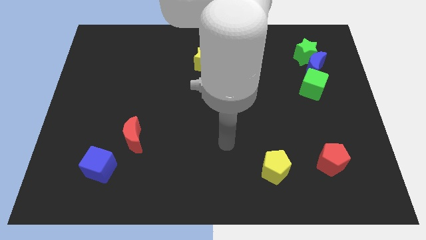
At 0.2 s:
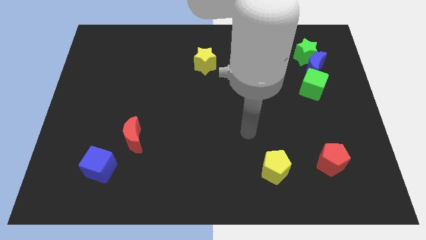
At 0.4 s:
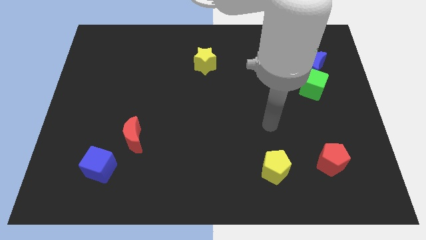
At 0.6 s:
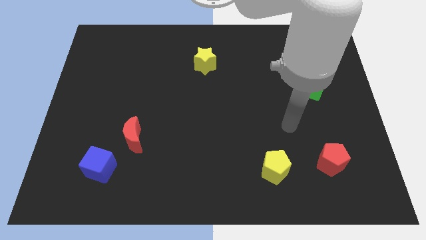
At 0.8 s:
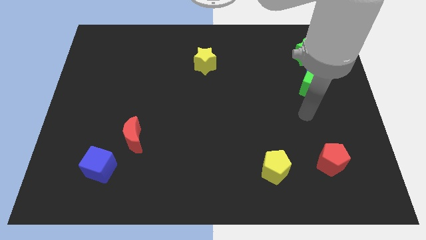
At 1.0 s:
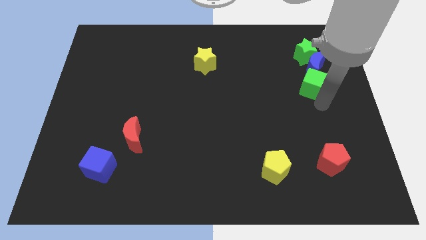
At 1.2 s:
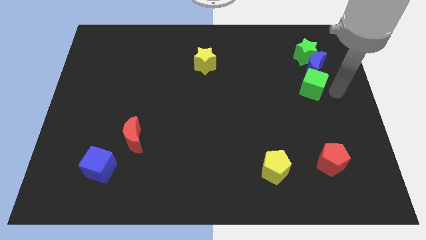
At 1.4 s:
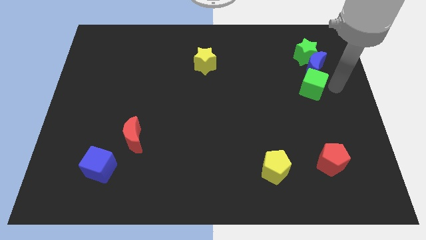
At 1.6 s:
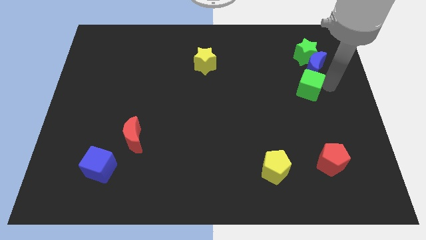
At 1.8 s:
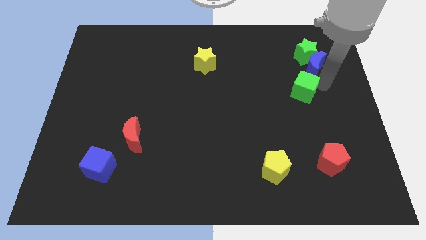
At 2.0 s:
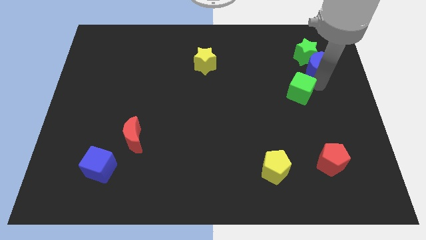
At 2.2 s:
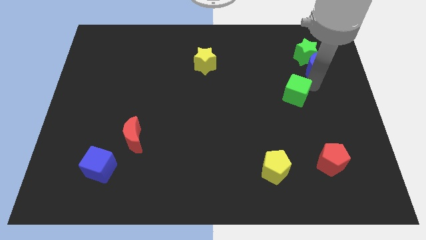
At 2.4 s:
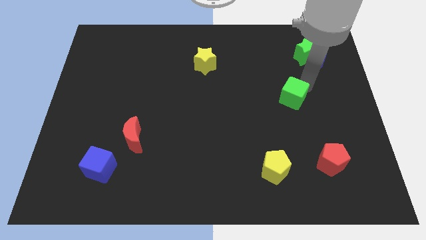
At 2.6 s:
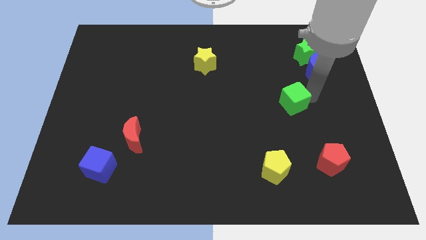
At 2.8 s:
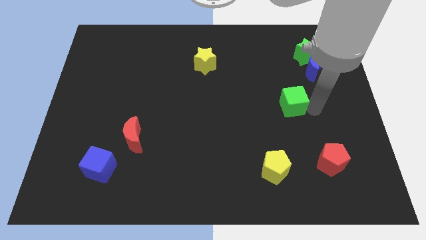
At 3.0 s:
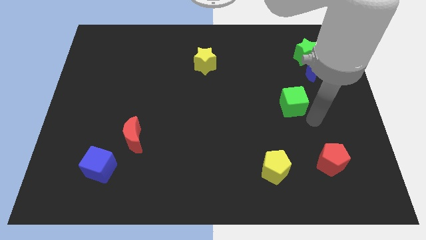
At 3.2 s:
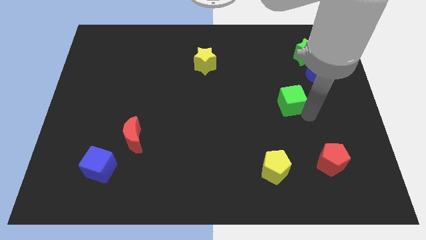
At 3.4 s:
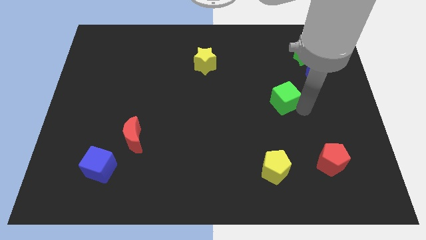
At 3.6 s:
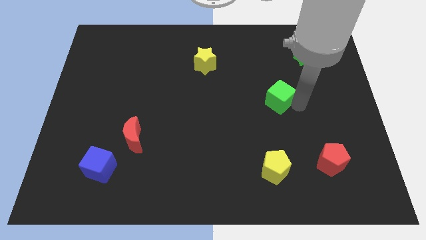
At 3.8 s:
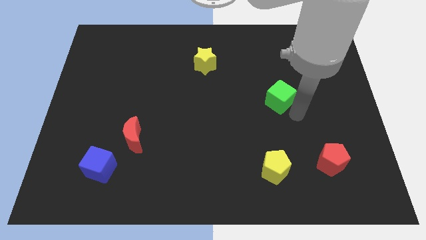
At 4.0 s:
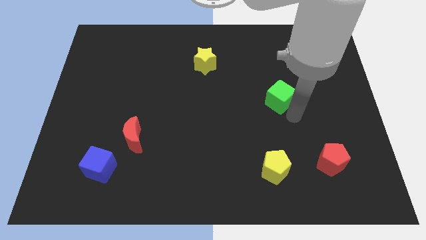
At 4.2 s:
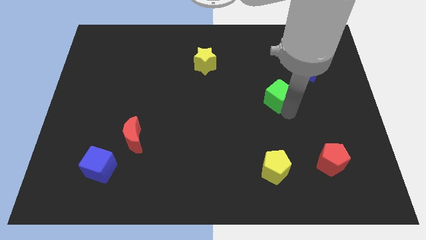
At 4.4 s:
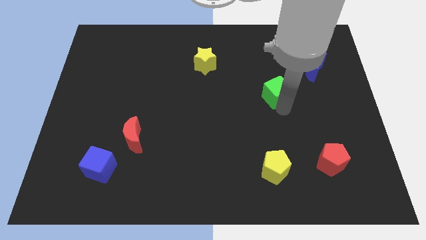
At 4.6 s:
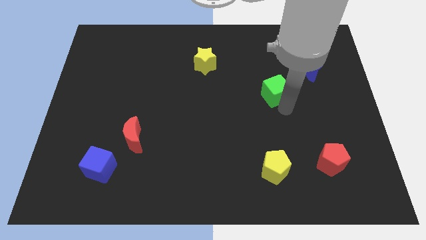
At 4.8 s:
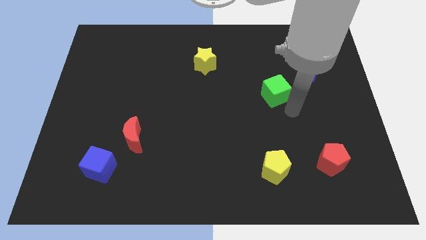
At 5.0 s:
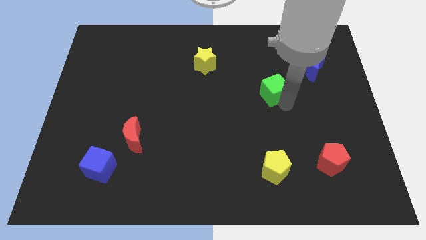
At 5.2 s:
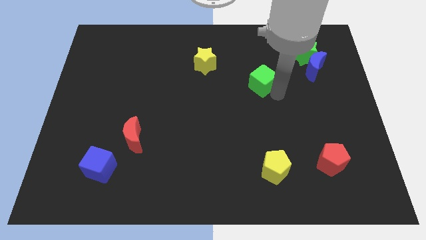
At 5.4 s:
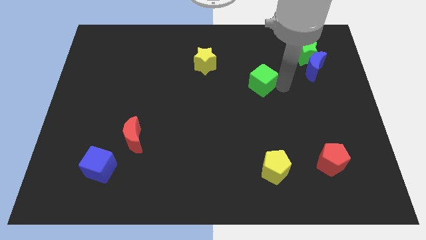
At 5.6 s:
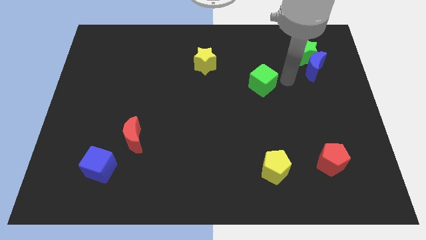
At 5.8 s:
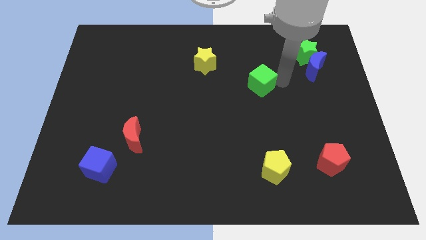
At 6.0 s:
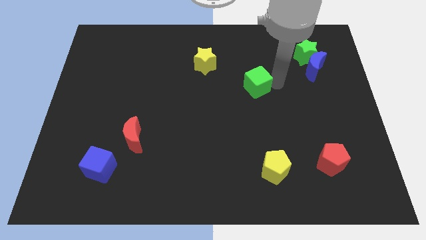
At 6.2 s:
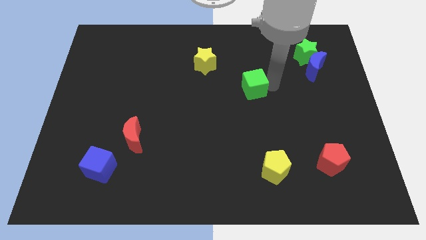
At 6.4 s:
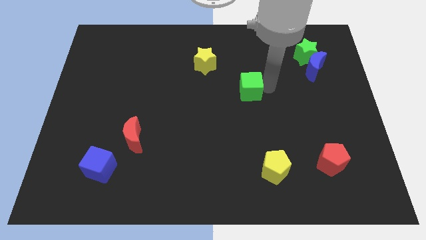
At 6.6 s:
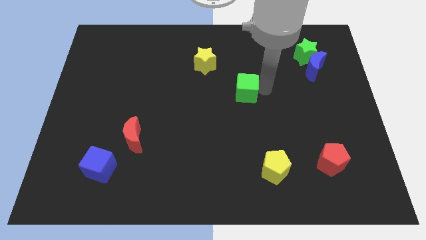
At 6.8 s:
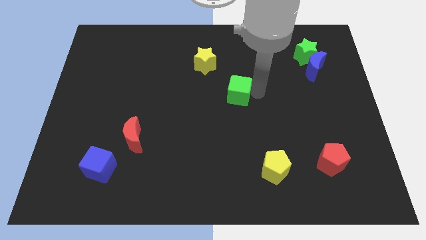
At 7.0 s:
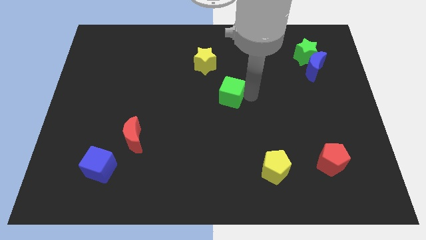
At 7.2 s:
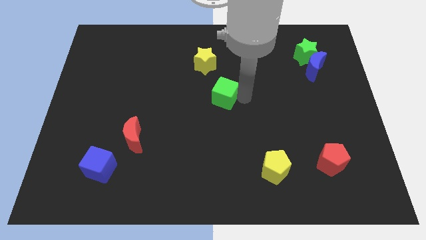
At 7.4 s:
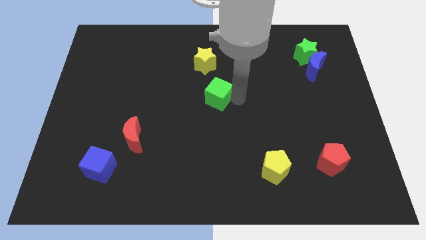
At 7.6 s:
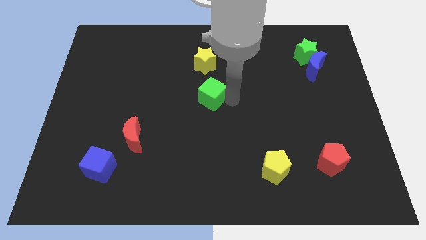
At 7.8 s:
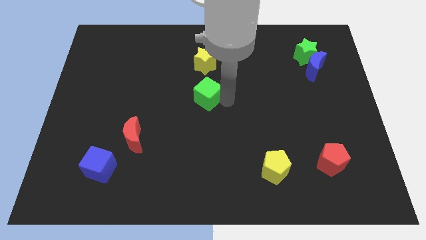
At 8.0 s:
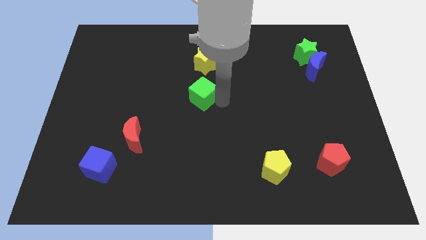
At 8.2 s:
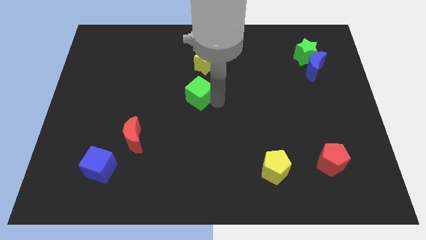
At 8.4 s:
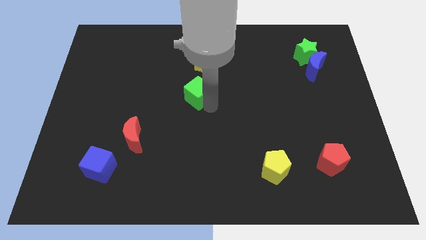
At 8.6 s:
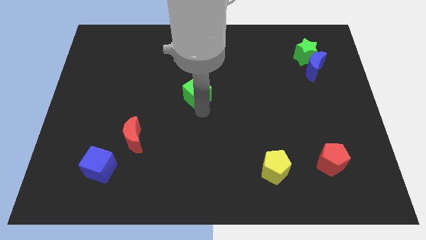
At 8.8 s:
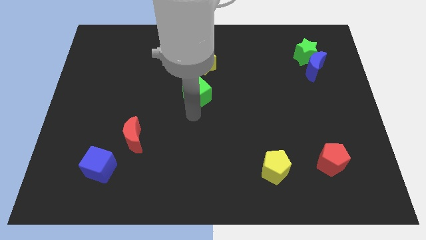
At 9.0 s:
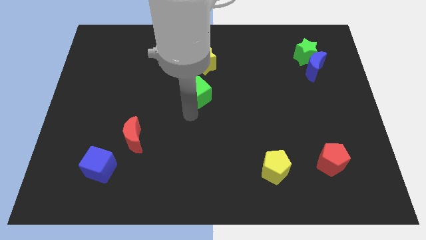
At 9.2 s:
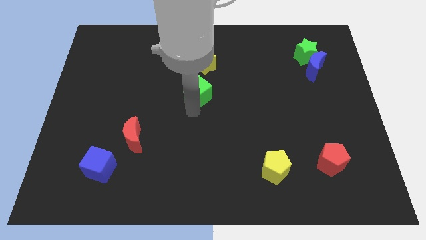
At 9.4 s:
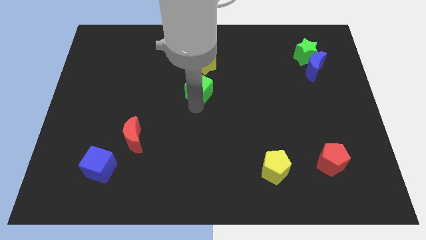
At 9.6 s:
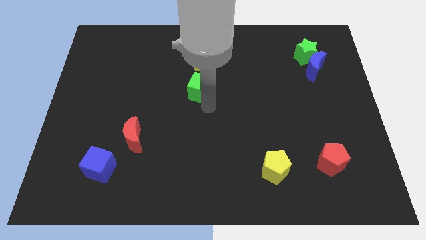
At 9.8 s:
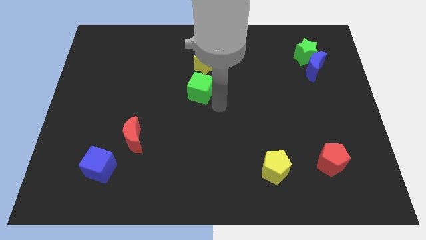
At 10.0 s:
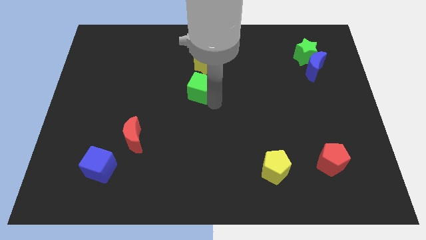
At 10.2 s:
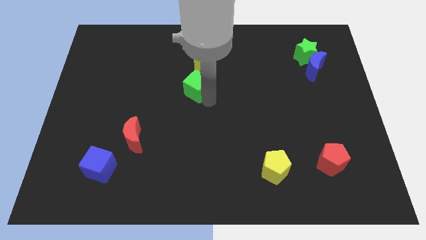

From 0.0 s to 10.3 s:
put the green cube to the bottom left side of the yellow star

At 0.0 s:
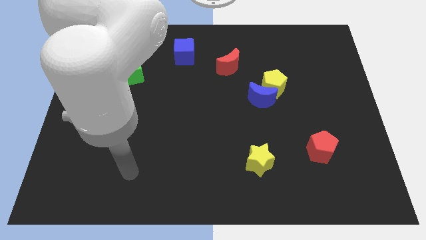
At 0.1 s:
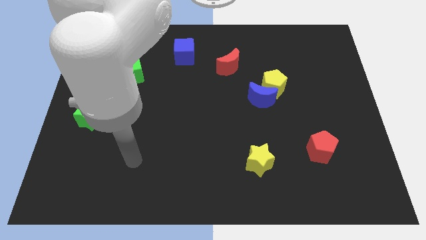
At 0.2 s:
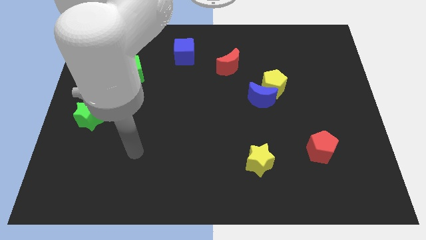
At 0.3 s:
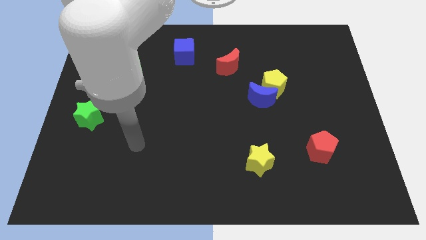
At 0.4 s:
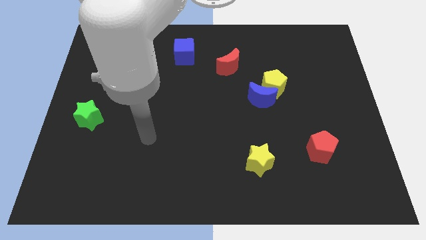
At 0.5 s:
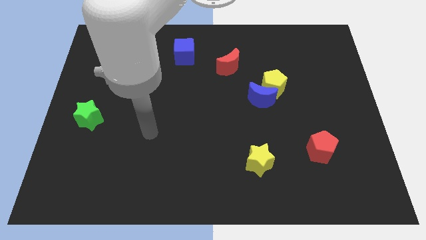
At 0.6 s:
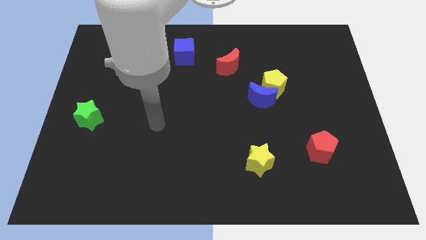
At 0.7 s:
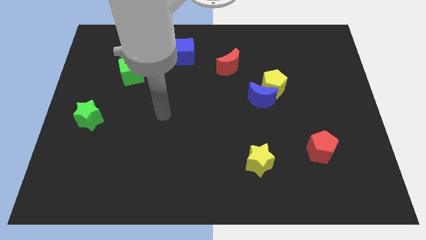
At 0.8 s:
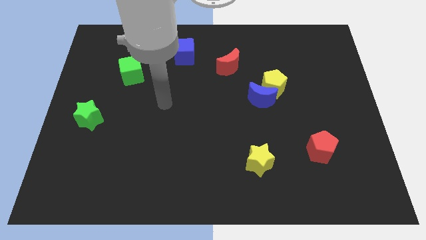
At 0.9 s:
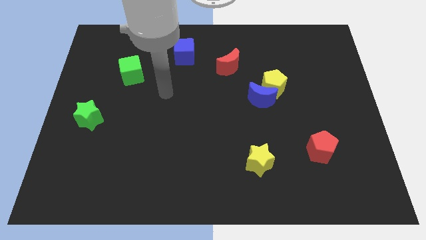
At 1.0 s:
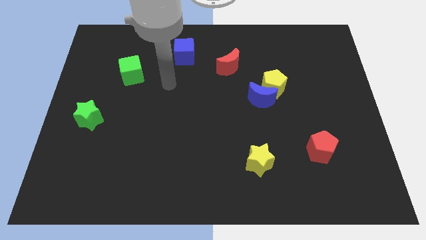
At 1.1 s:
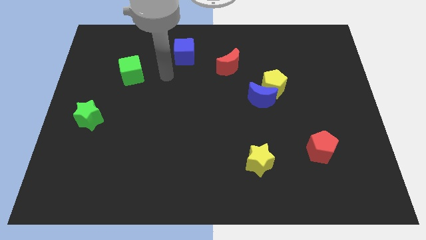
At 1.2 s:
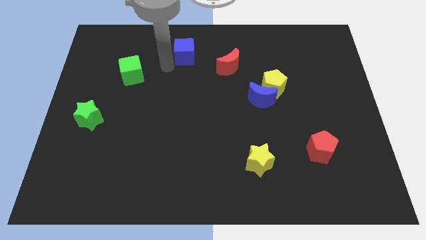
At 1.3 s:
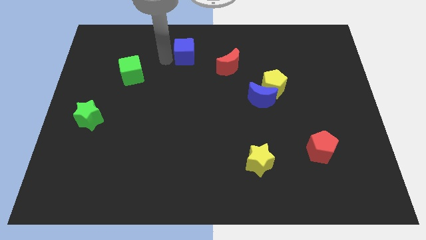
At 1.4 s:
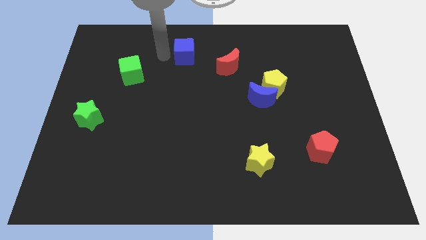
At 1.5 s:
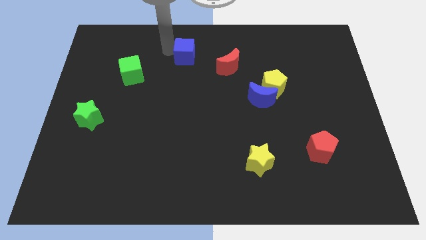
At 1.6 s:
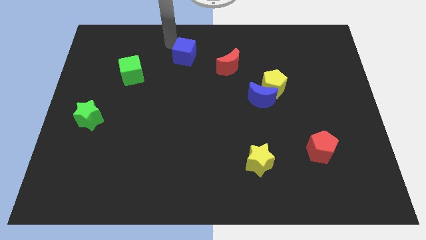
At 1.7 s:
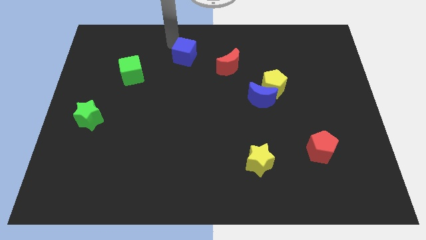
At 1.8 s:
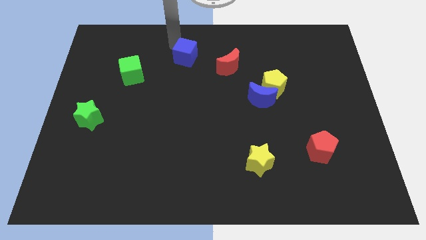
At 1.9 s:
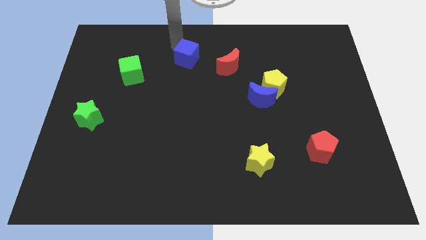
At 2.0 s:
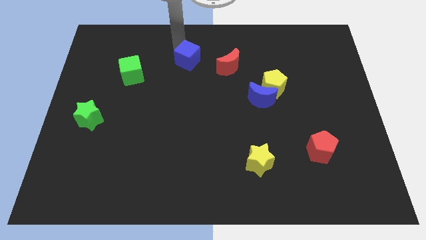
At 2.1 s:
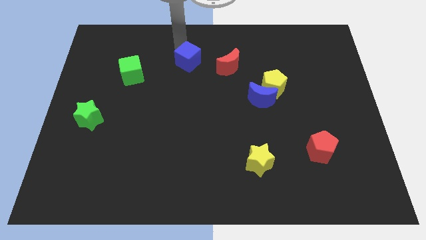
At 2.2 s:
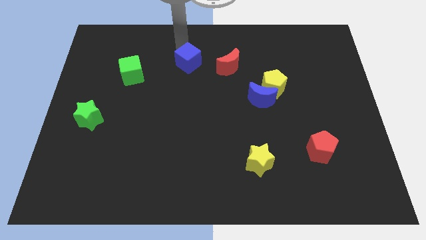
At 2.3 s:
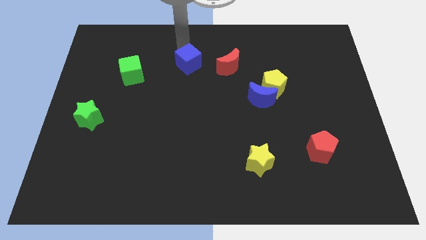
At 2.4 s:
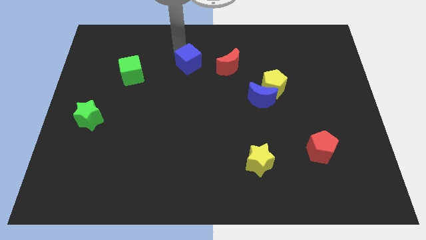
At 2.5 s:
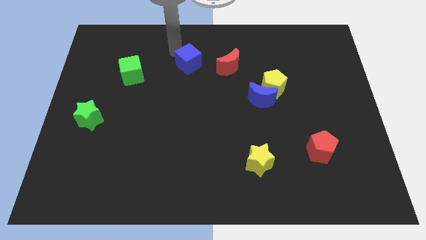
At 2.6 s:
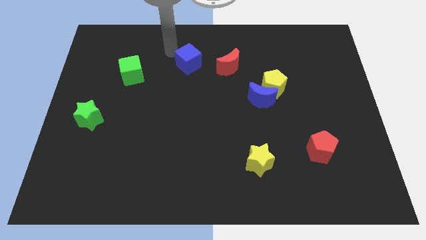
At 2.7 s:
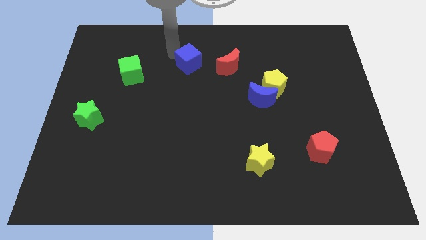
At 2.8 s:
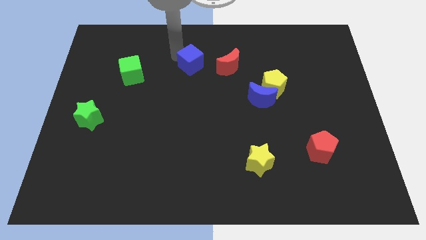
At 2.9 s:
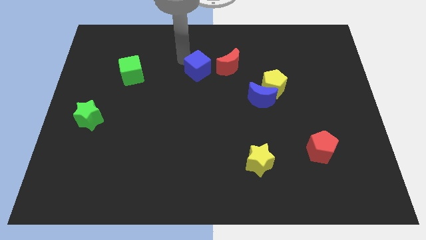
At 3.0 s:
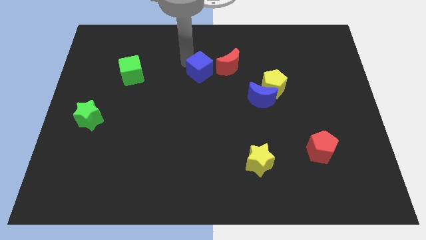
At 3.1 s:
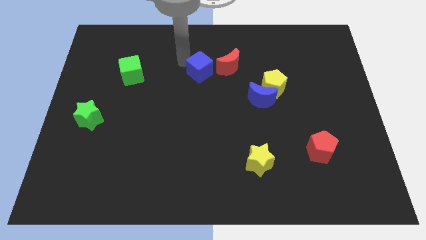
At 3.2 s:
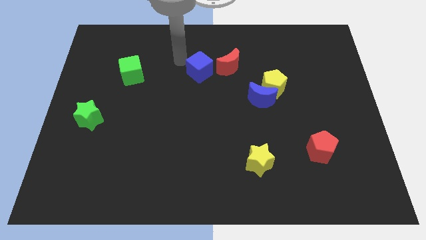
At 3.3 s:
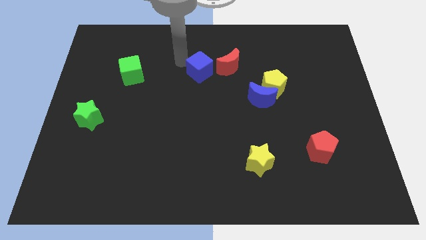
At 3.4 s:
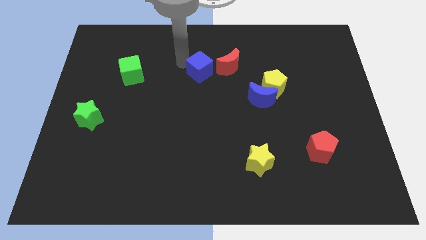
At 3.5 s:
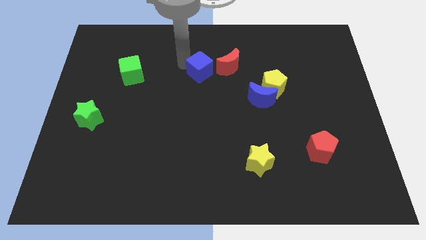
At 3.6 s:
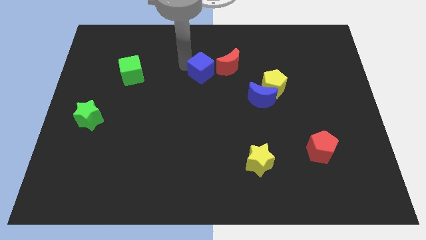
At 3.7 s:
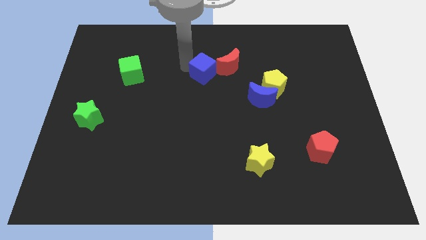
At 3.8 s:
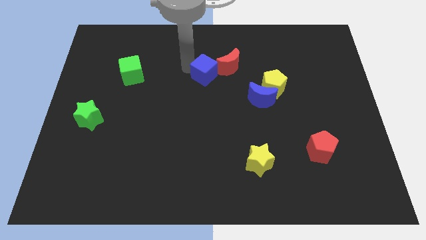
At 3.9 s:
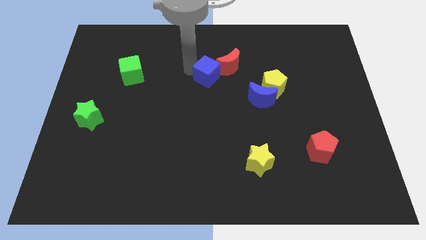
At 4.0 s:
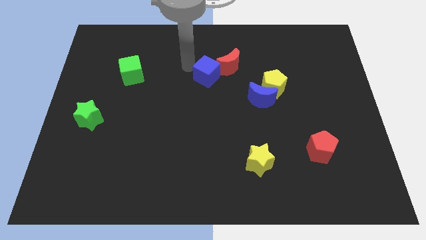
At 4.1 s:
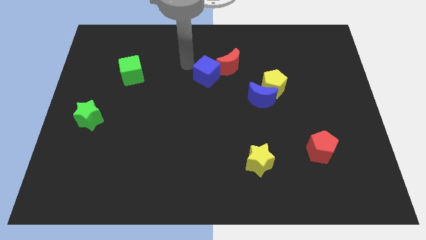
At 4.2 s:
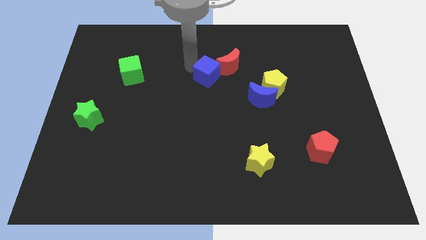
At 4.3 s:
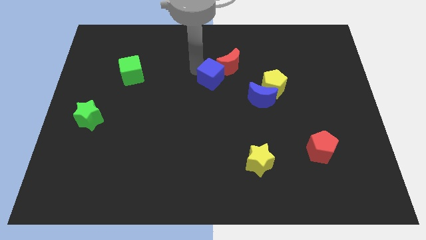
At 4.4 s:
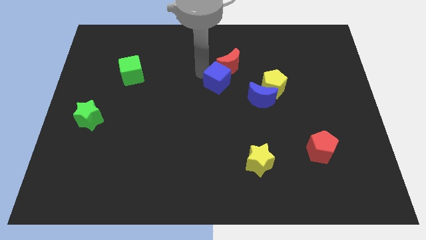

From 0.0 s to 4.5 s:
slide the blue cube to the left of the yellow pentagon
